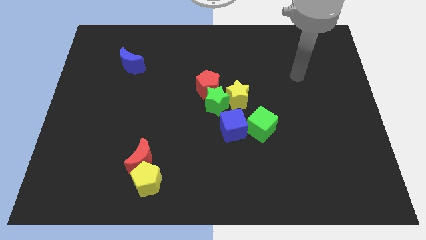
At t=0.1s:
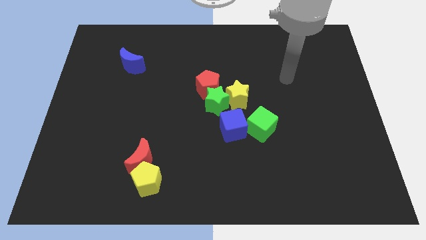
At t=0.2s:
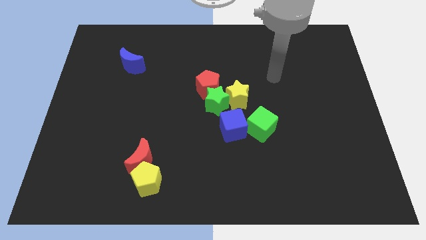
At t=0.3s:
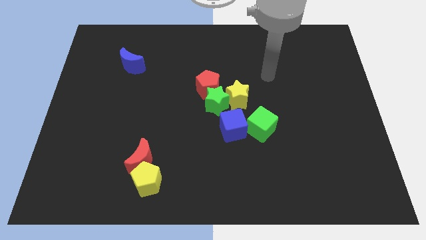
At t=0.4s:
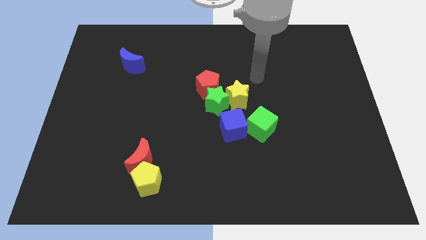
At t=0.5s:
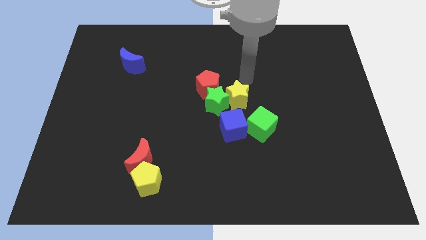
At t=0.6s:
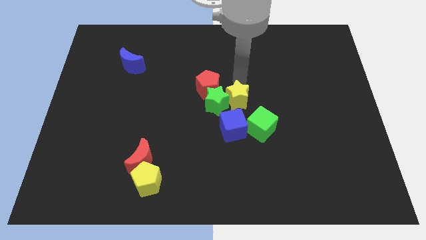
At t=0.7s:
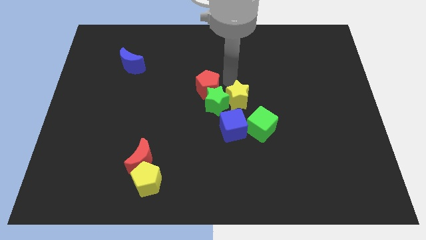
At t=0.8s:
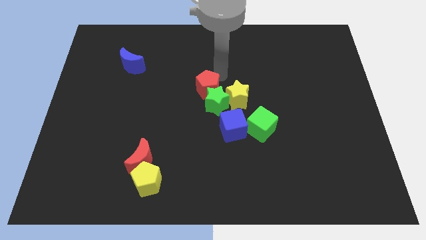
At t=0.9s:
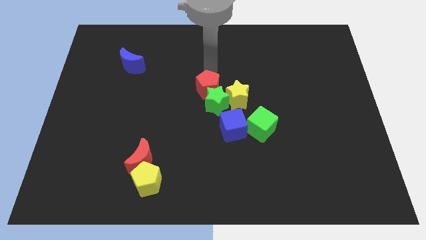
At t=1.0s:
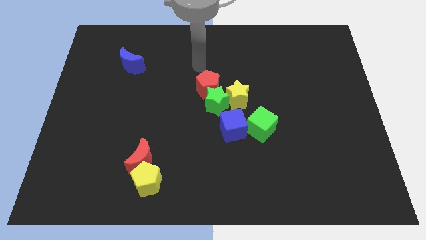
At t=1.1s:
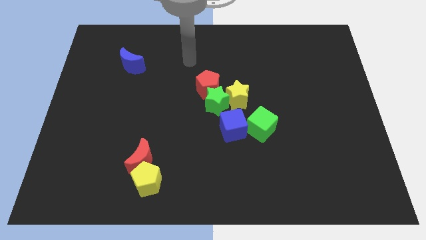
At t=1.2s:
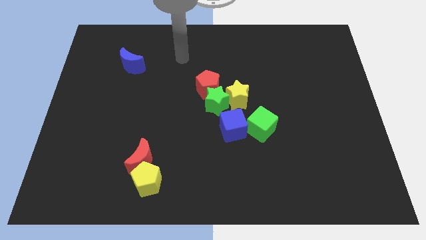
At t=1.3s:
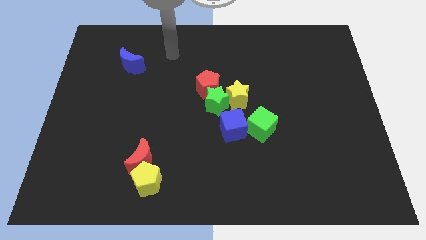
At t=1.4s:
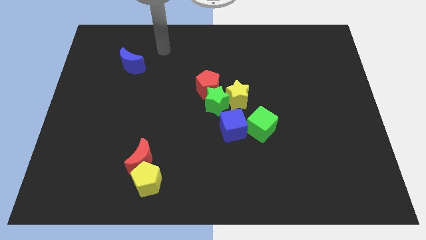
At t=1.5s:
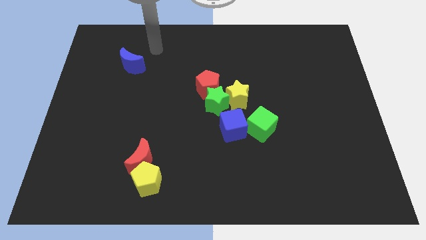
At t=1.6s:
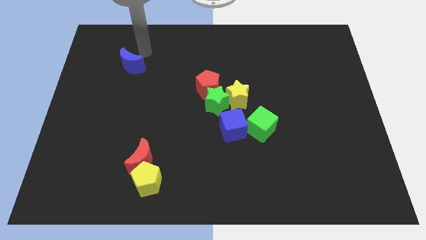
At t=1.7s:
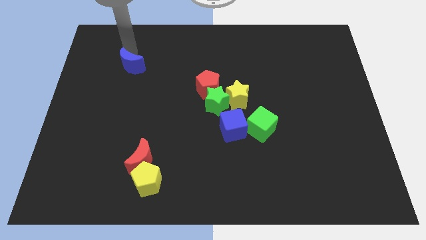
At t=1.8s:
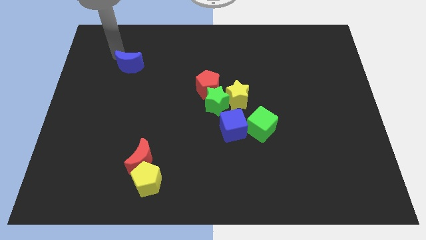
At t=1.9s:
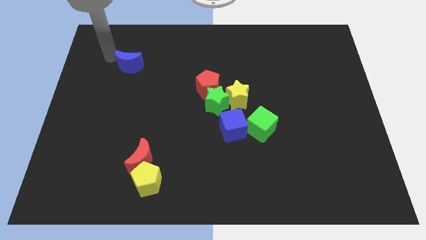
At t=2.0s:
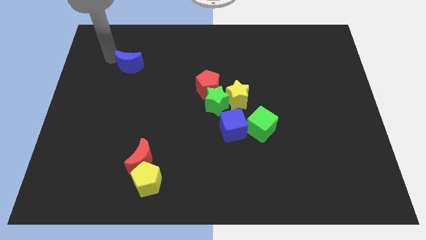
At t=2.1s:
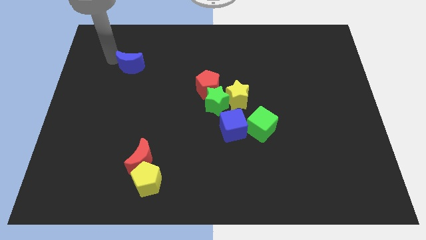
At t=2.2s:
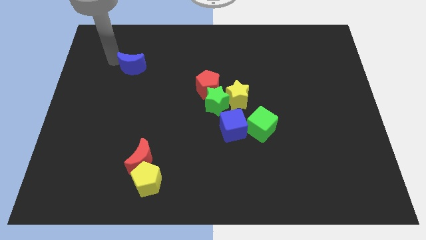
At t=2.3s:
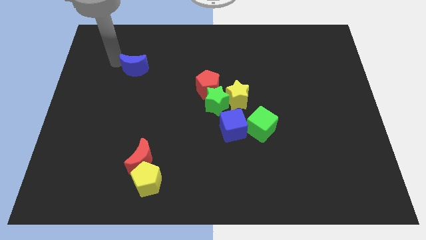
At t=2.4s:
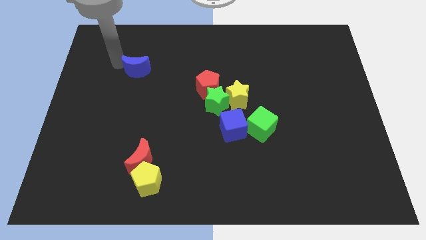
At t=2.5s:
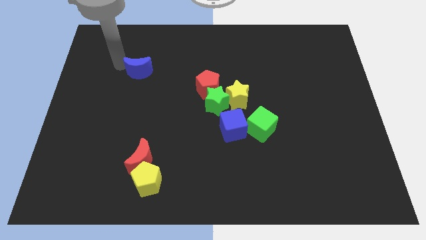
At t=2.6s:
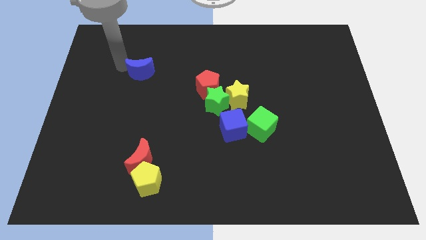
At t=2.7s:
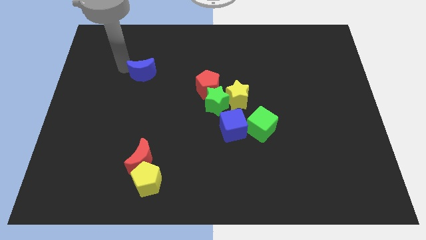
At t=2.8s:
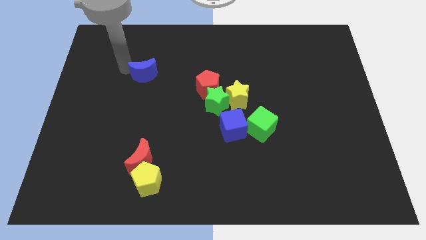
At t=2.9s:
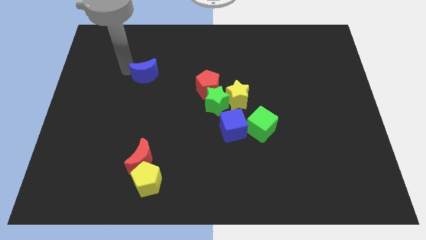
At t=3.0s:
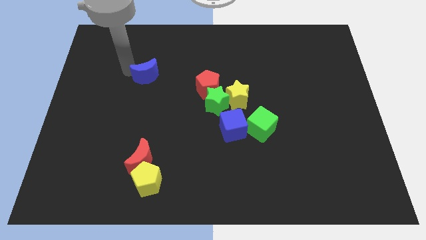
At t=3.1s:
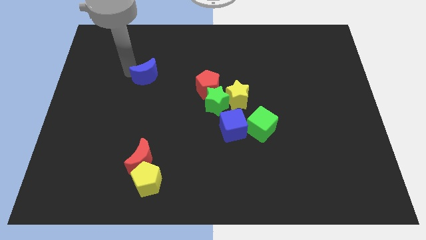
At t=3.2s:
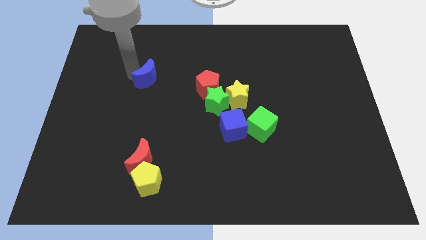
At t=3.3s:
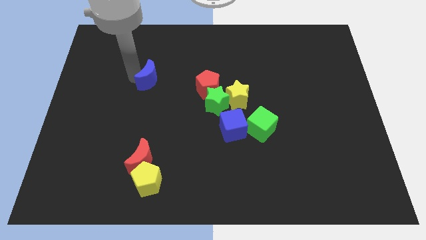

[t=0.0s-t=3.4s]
move the blue moon downwards and right diagonally a little bit

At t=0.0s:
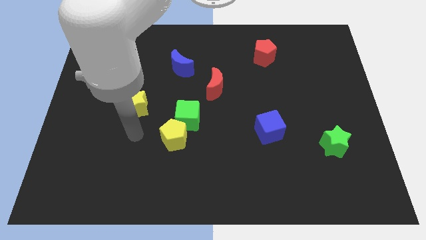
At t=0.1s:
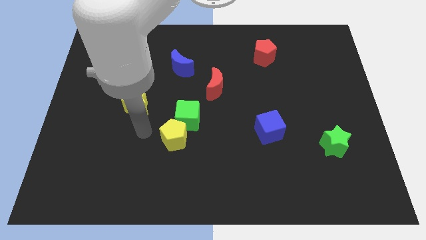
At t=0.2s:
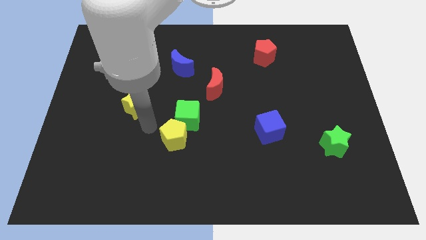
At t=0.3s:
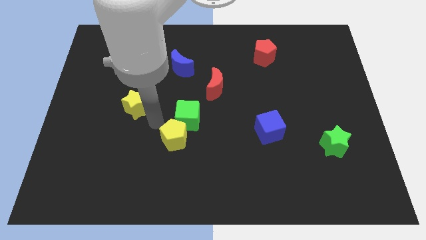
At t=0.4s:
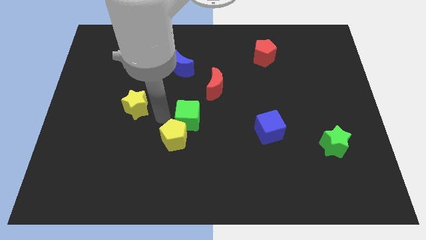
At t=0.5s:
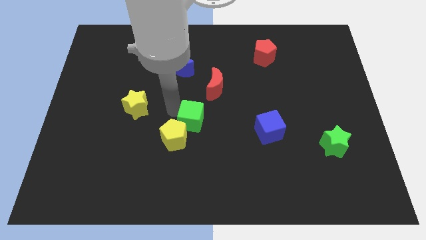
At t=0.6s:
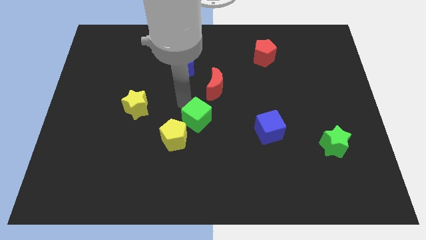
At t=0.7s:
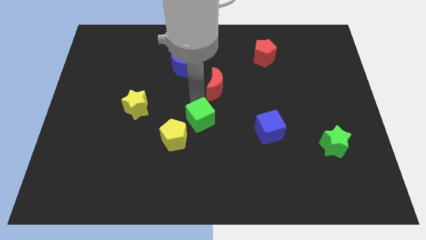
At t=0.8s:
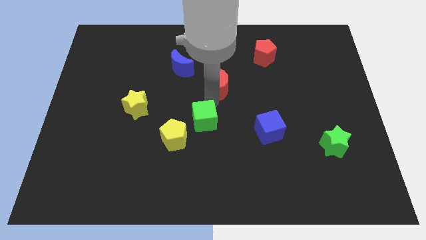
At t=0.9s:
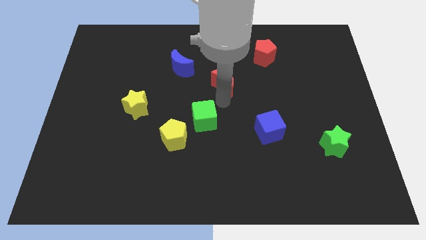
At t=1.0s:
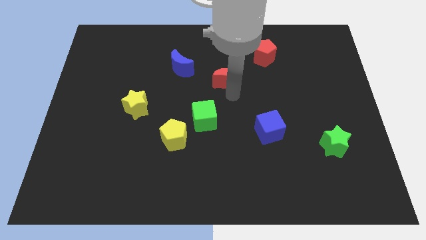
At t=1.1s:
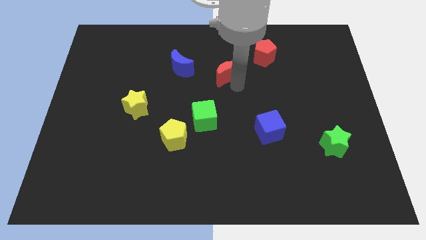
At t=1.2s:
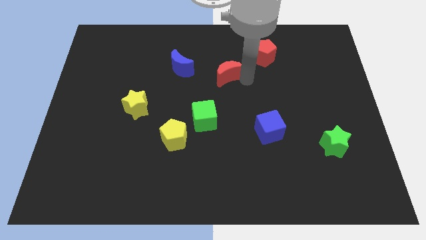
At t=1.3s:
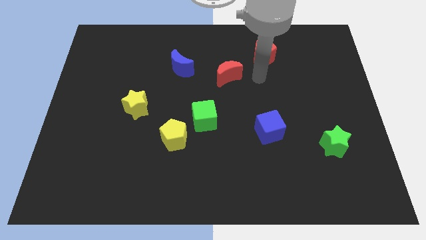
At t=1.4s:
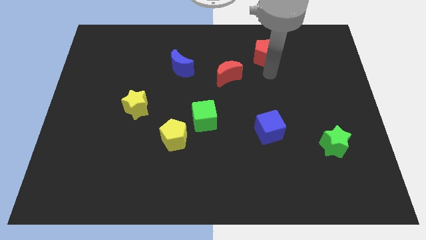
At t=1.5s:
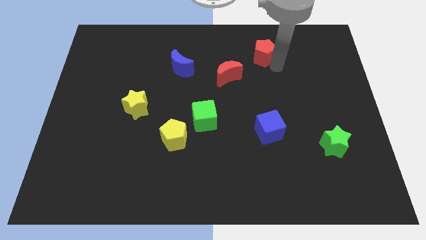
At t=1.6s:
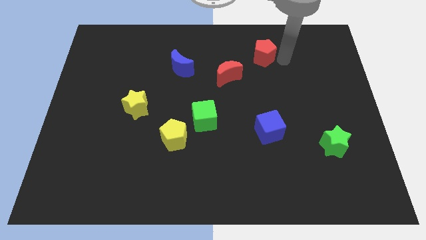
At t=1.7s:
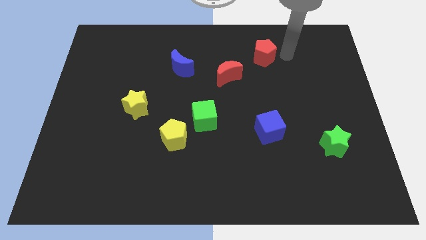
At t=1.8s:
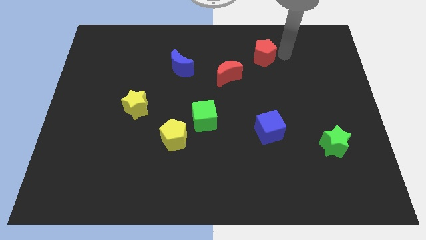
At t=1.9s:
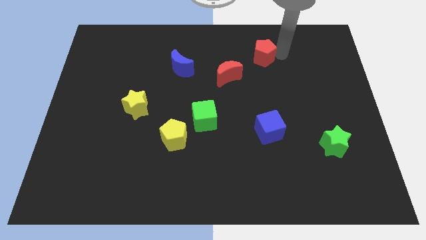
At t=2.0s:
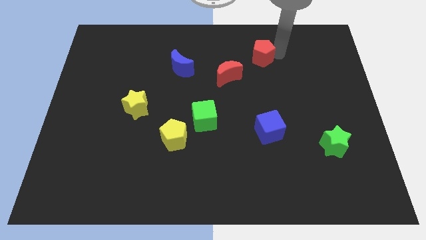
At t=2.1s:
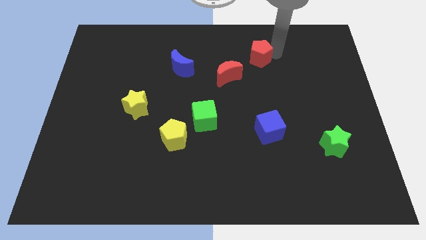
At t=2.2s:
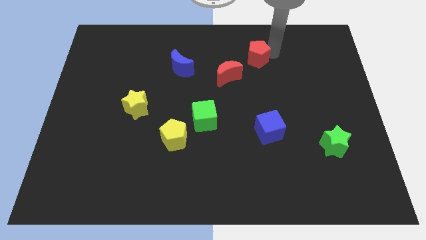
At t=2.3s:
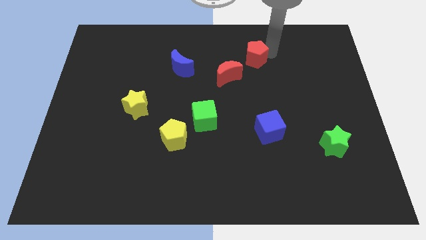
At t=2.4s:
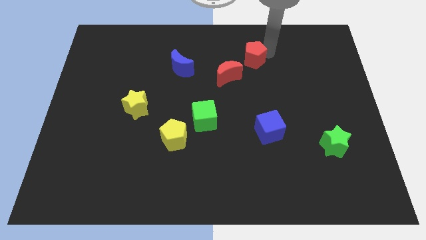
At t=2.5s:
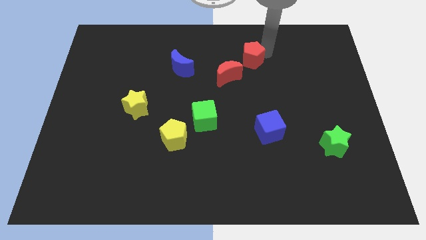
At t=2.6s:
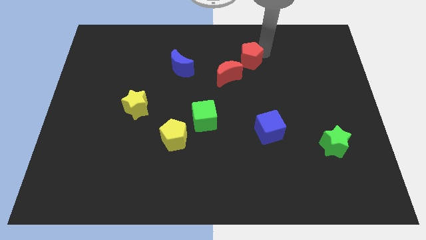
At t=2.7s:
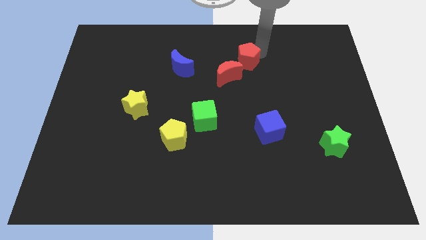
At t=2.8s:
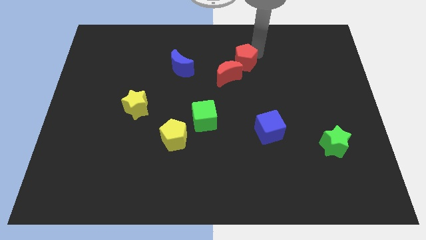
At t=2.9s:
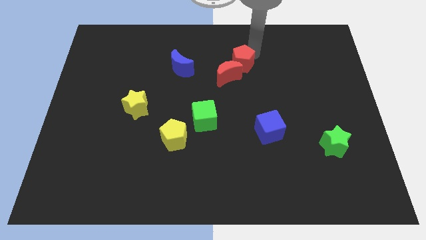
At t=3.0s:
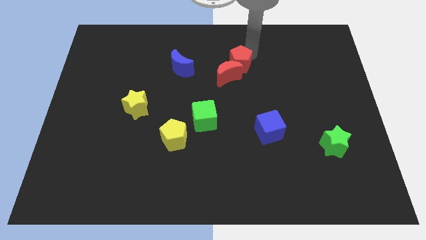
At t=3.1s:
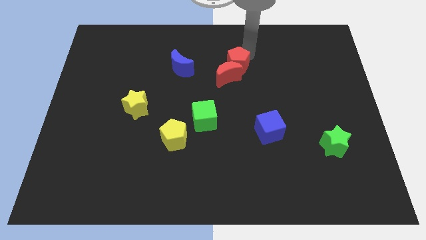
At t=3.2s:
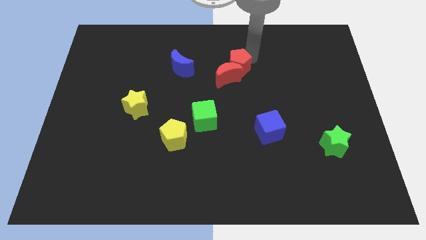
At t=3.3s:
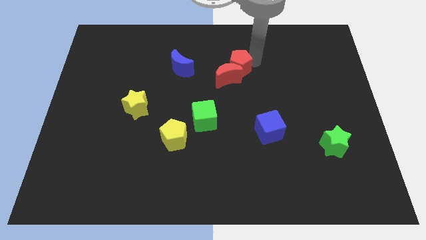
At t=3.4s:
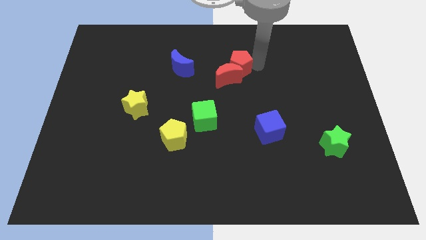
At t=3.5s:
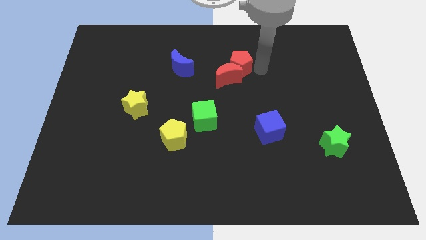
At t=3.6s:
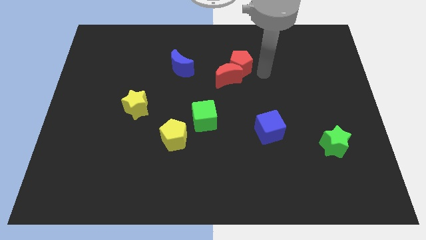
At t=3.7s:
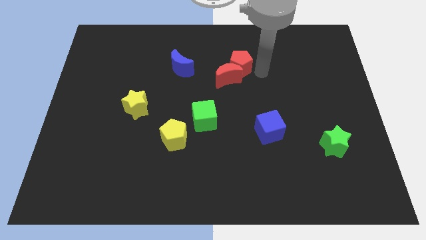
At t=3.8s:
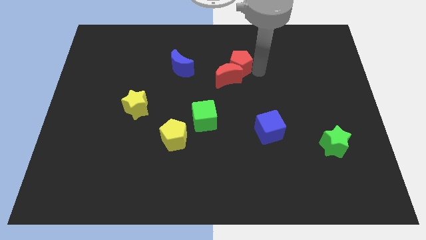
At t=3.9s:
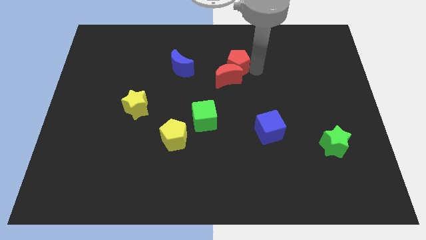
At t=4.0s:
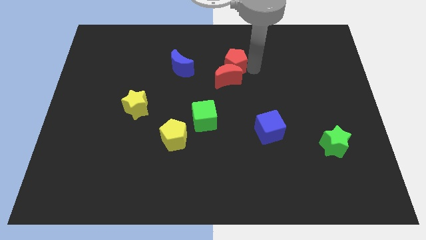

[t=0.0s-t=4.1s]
slightly slide the red pentagon to the left

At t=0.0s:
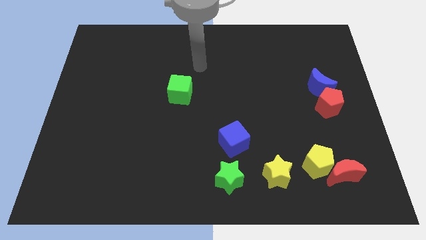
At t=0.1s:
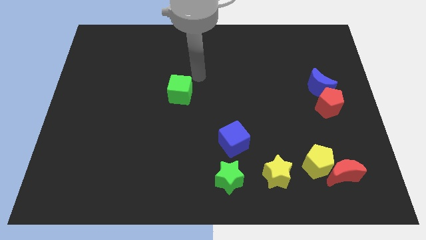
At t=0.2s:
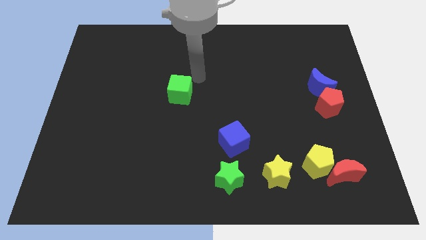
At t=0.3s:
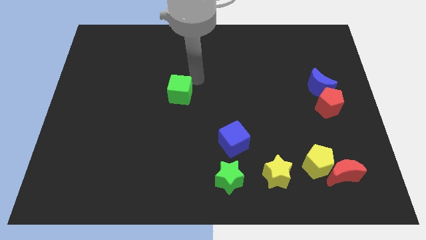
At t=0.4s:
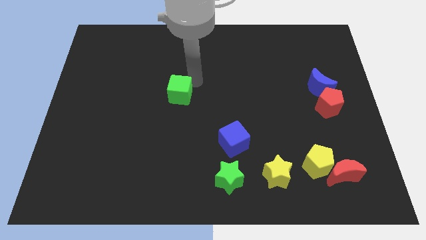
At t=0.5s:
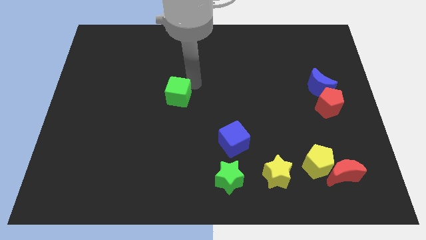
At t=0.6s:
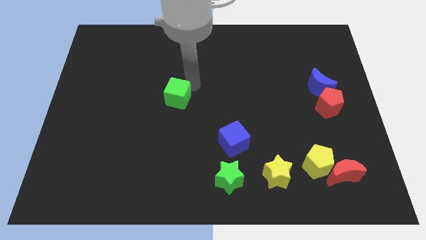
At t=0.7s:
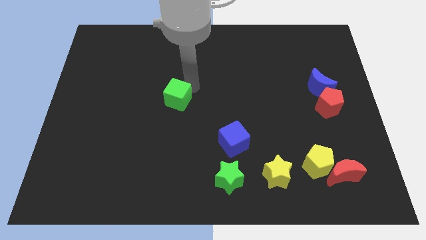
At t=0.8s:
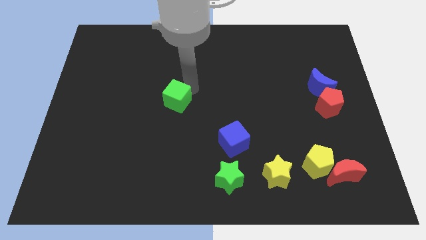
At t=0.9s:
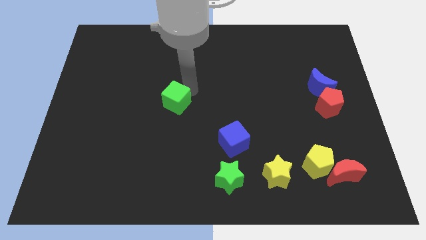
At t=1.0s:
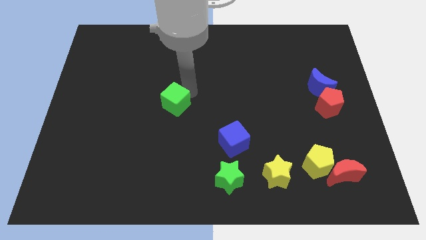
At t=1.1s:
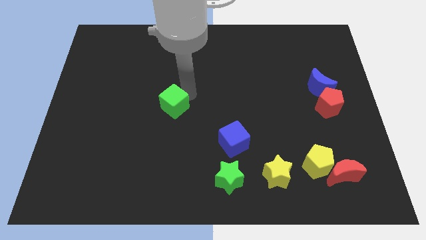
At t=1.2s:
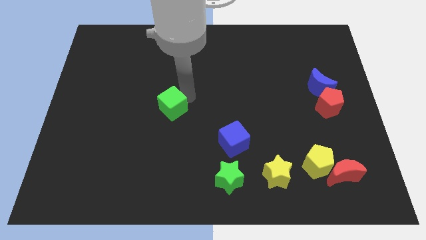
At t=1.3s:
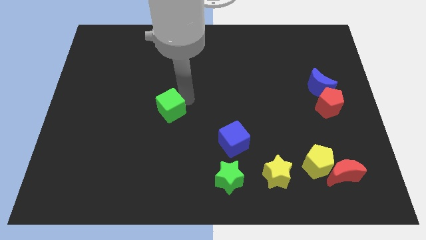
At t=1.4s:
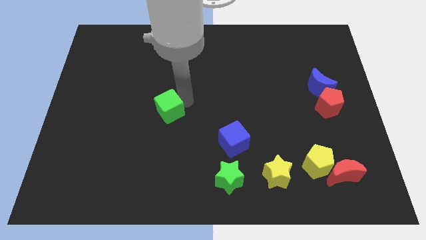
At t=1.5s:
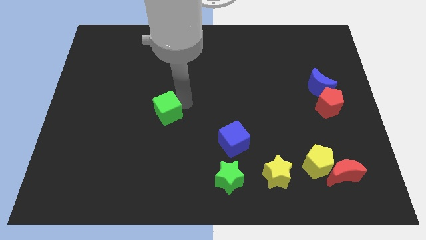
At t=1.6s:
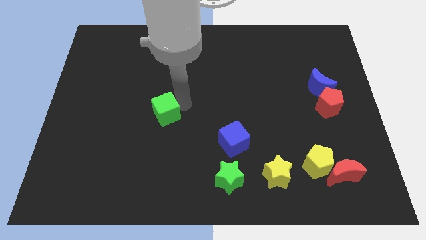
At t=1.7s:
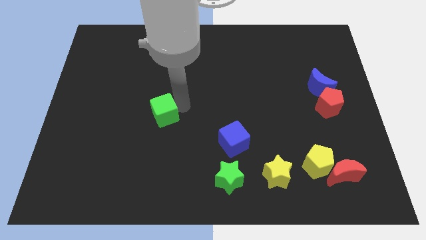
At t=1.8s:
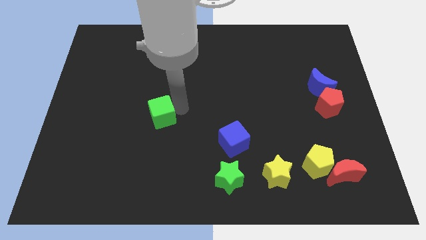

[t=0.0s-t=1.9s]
push the green cube slightly down and left
